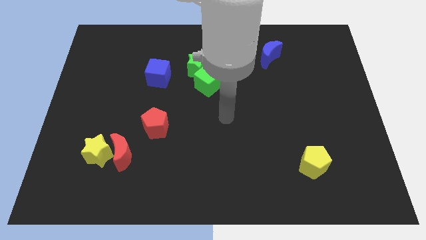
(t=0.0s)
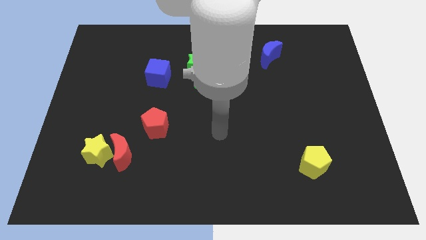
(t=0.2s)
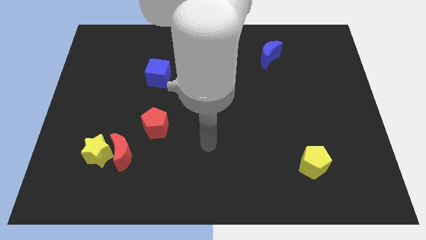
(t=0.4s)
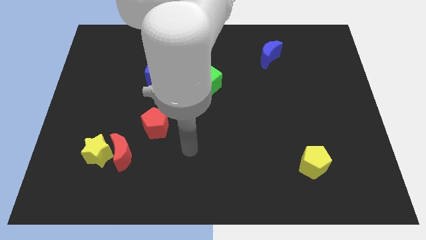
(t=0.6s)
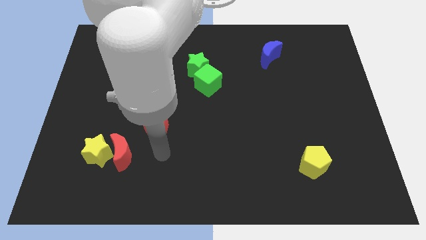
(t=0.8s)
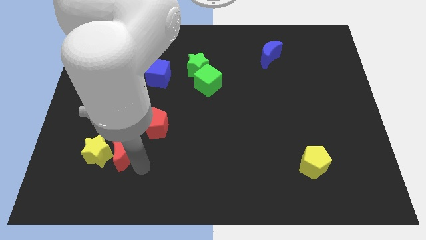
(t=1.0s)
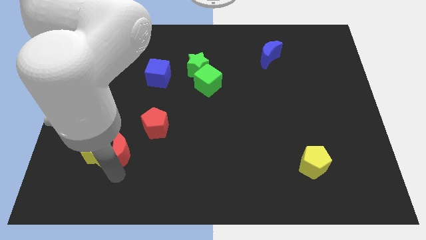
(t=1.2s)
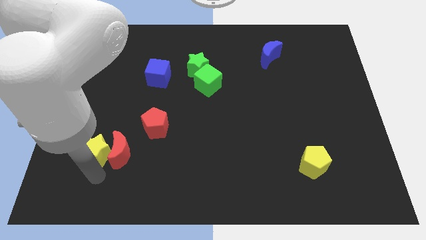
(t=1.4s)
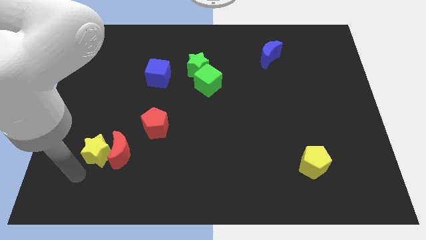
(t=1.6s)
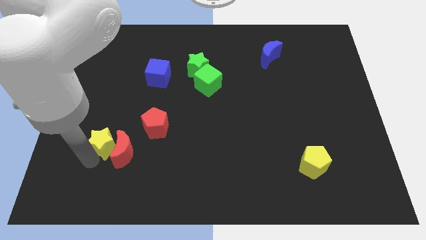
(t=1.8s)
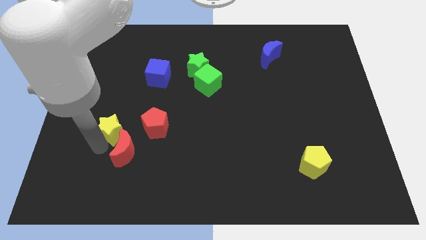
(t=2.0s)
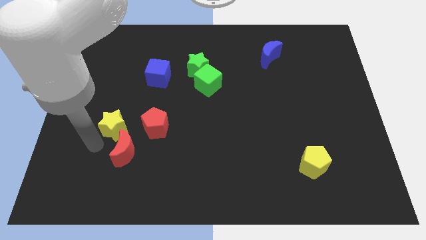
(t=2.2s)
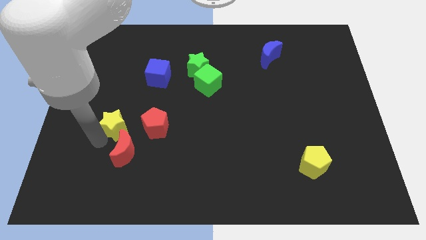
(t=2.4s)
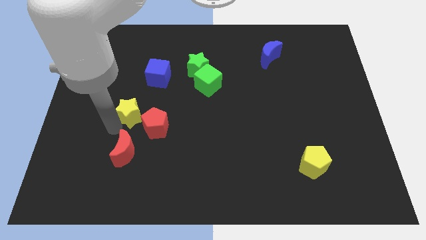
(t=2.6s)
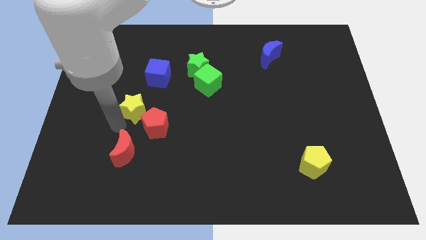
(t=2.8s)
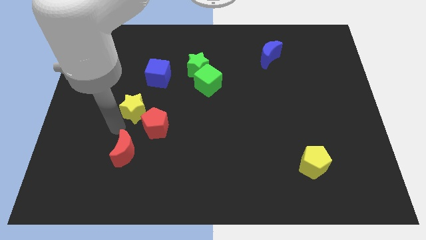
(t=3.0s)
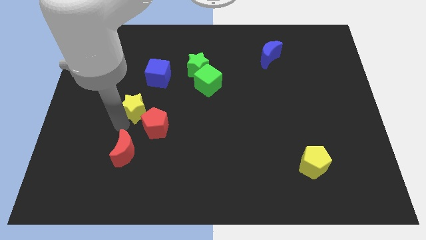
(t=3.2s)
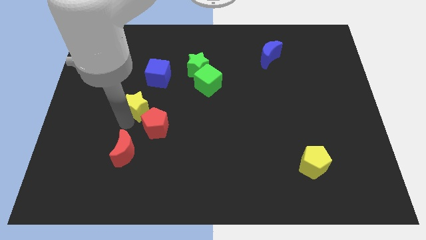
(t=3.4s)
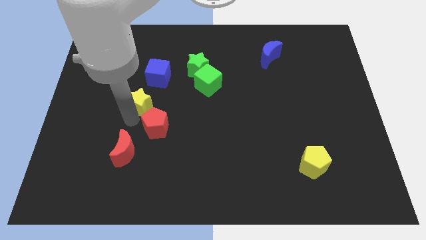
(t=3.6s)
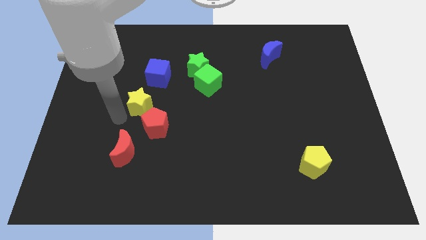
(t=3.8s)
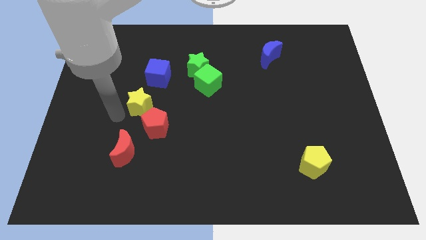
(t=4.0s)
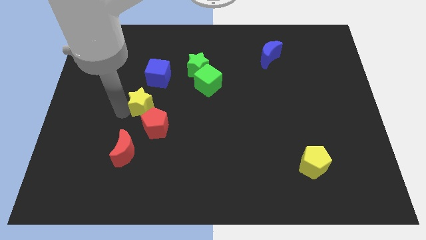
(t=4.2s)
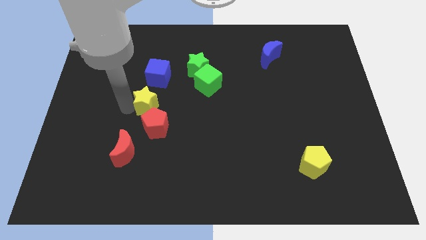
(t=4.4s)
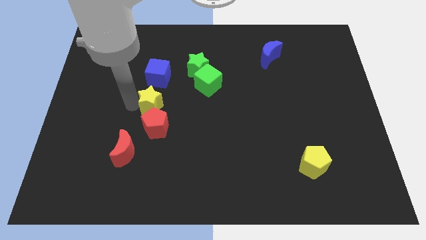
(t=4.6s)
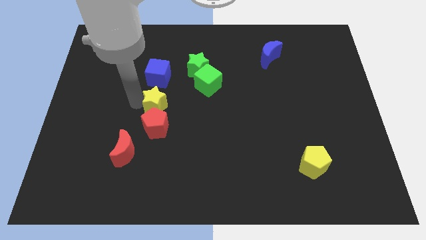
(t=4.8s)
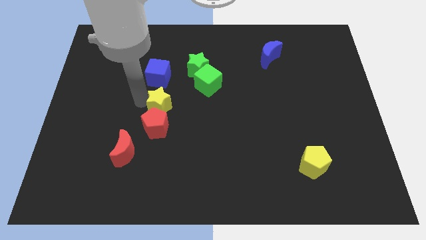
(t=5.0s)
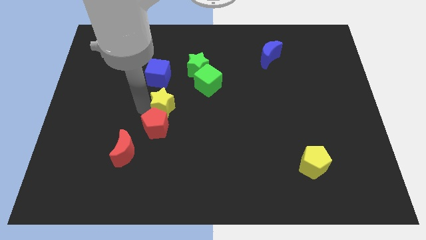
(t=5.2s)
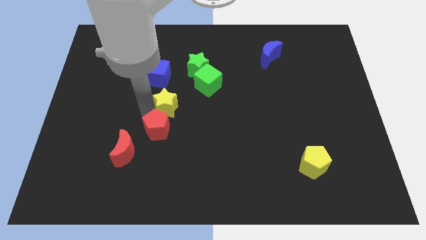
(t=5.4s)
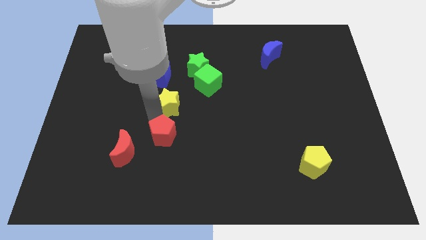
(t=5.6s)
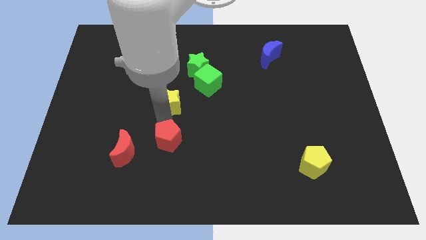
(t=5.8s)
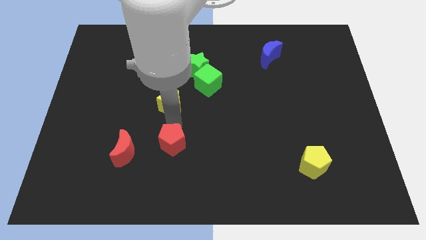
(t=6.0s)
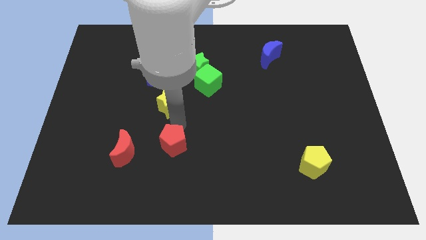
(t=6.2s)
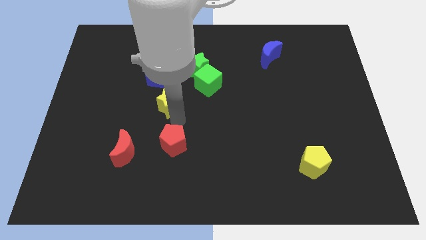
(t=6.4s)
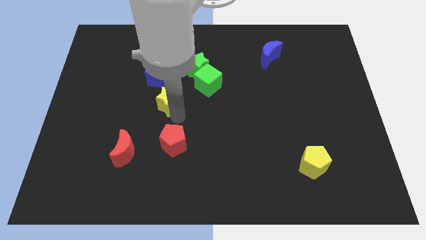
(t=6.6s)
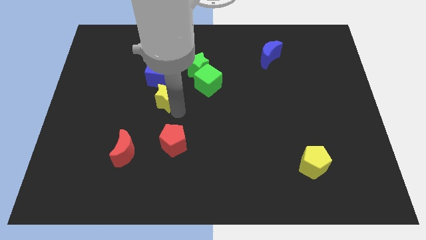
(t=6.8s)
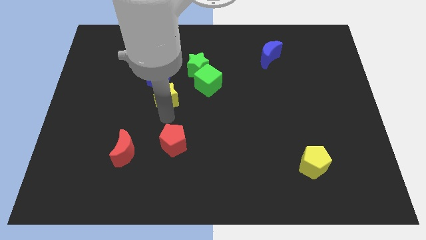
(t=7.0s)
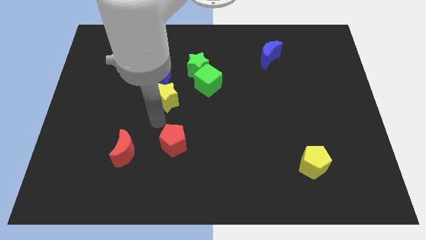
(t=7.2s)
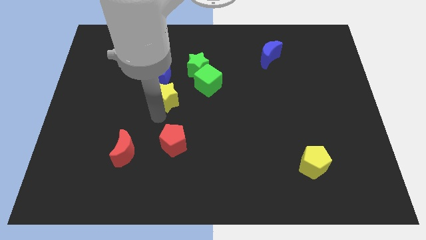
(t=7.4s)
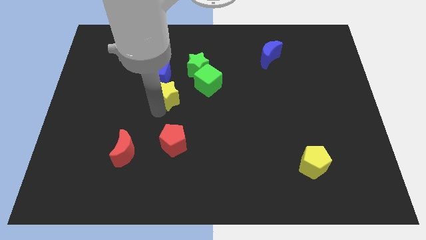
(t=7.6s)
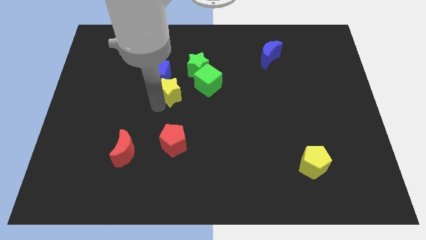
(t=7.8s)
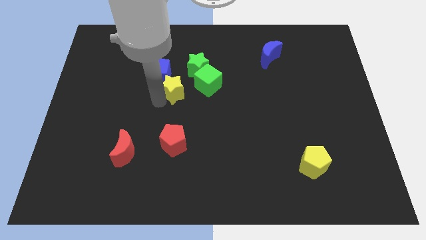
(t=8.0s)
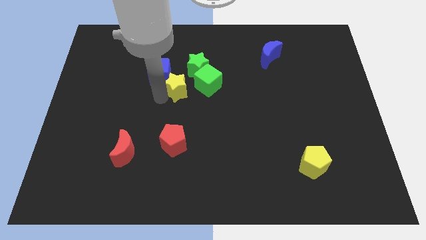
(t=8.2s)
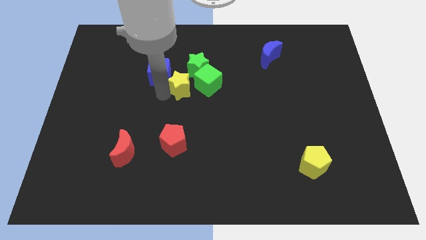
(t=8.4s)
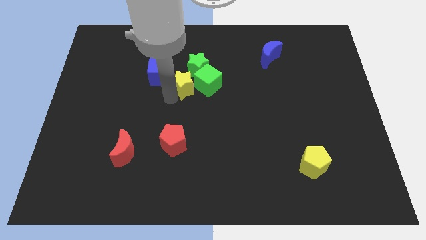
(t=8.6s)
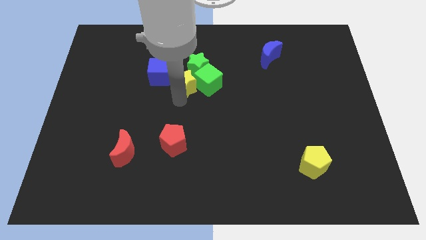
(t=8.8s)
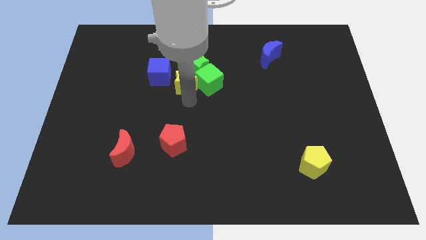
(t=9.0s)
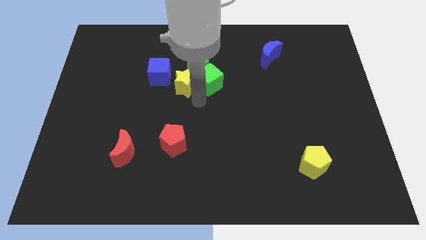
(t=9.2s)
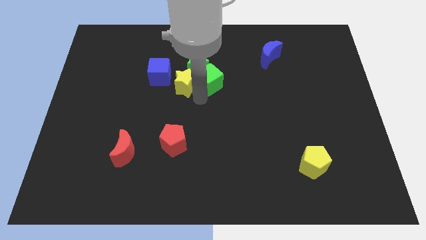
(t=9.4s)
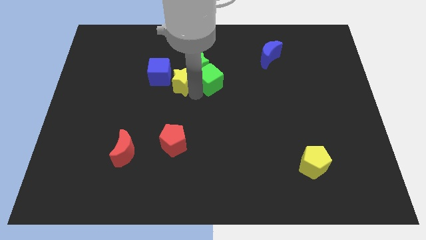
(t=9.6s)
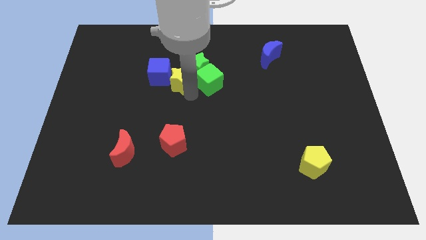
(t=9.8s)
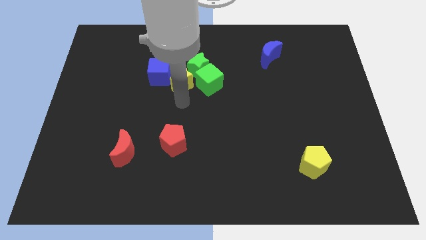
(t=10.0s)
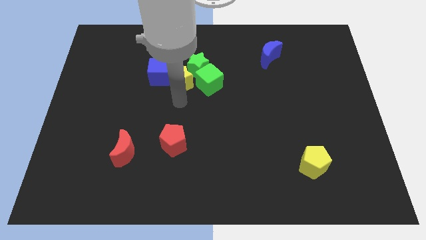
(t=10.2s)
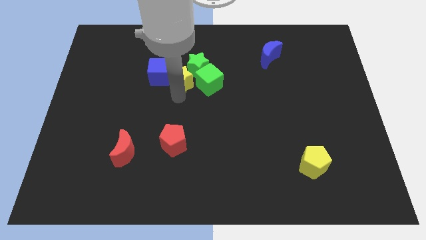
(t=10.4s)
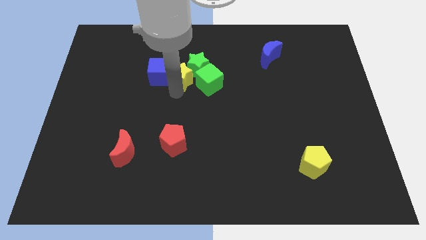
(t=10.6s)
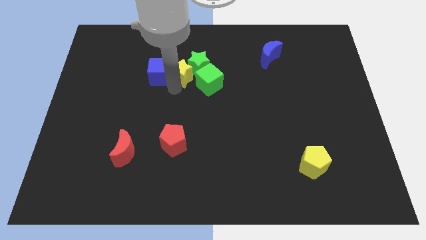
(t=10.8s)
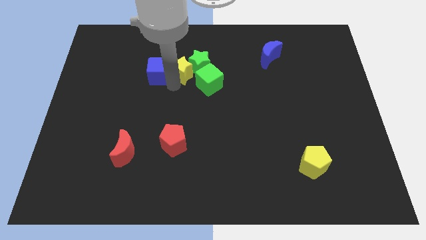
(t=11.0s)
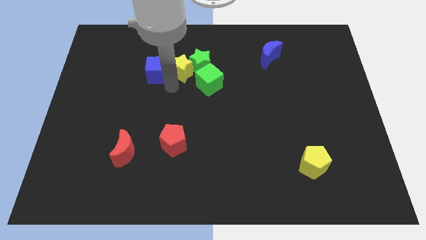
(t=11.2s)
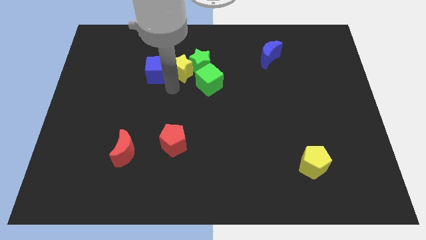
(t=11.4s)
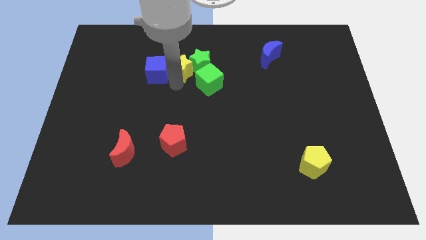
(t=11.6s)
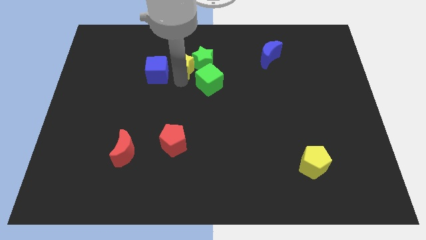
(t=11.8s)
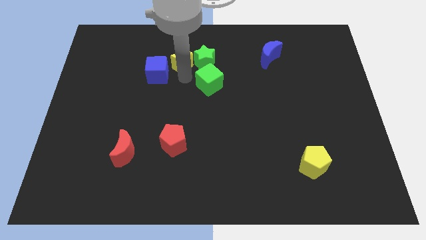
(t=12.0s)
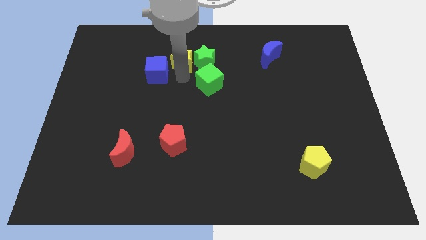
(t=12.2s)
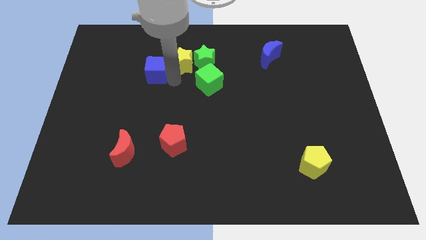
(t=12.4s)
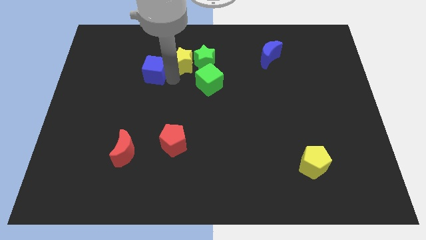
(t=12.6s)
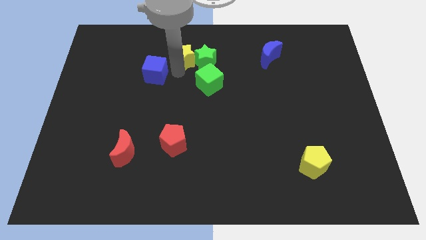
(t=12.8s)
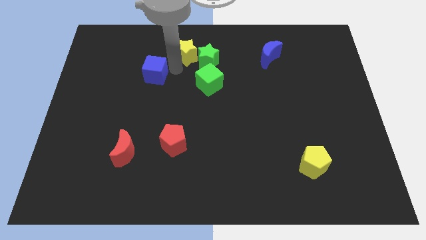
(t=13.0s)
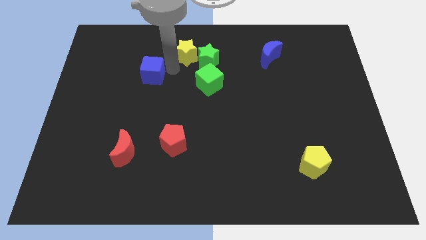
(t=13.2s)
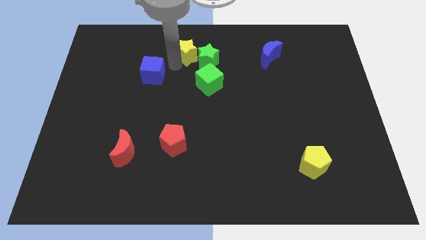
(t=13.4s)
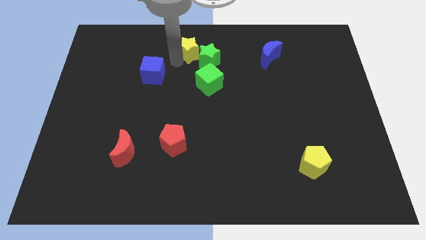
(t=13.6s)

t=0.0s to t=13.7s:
slide the yellow star to the top
